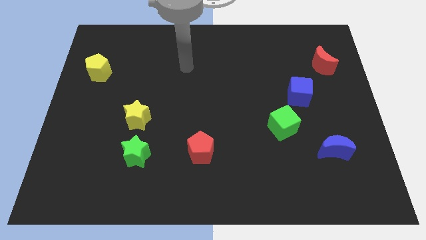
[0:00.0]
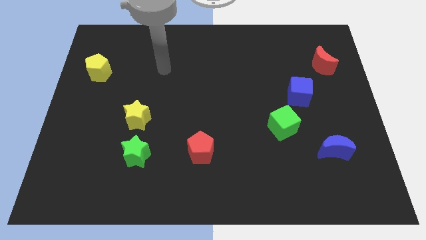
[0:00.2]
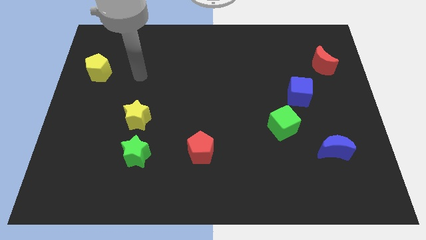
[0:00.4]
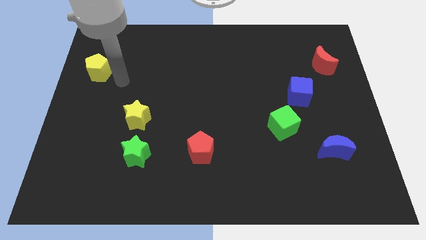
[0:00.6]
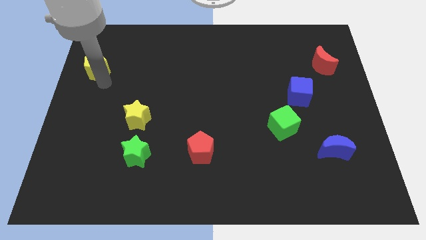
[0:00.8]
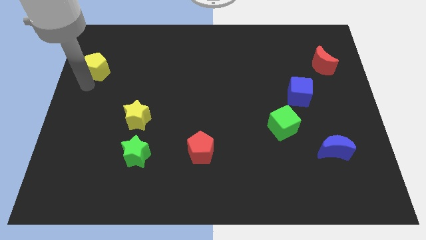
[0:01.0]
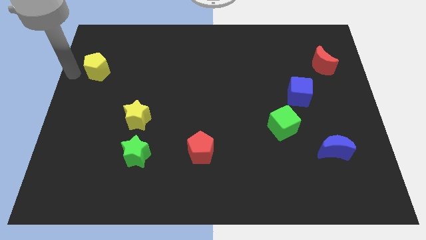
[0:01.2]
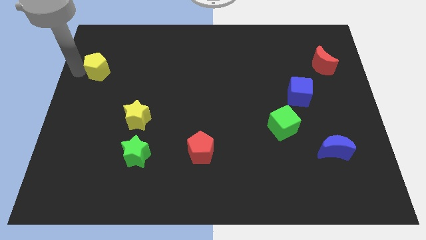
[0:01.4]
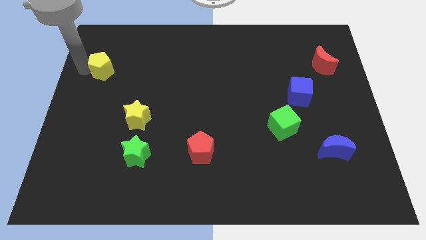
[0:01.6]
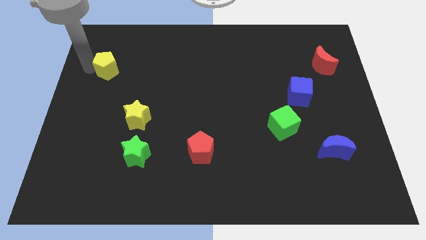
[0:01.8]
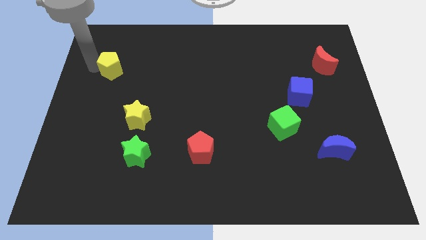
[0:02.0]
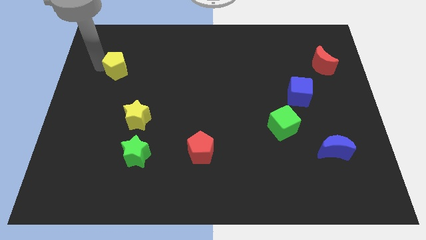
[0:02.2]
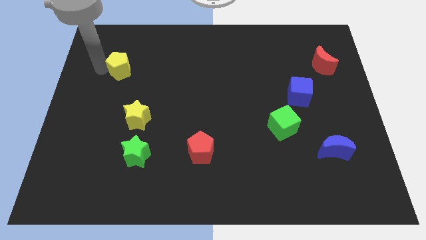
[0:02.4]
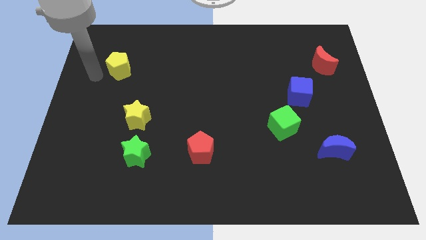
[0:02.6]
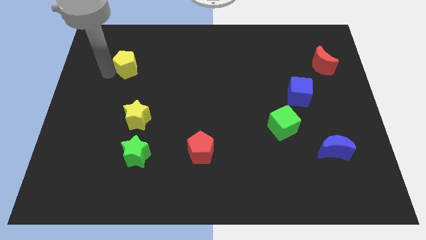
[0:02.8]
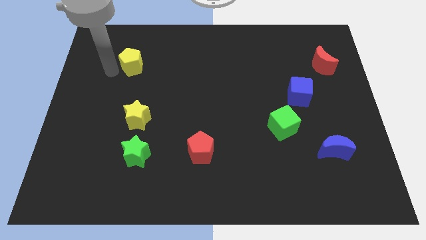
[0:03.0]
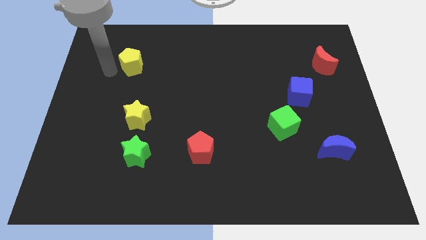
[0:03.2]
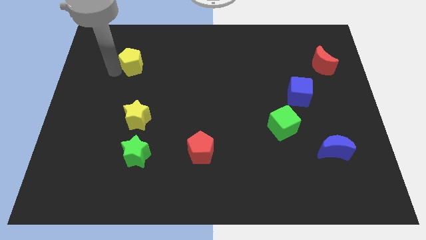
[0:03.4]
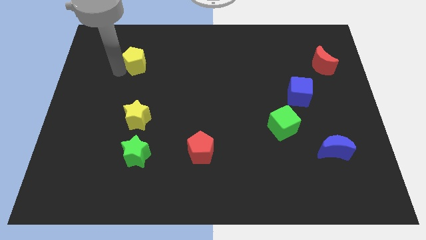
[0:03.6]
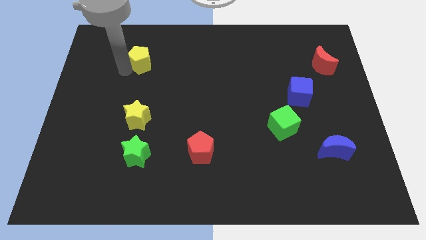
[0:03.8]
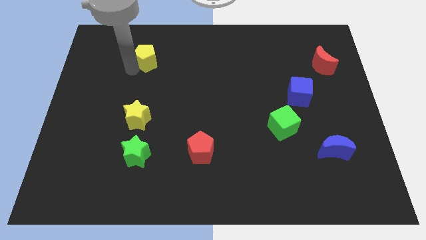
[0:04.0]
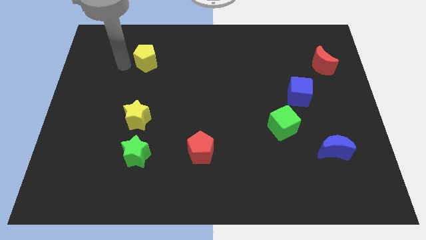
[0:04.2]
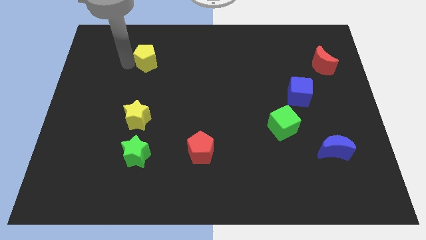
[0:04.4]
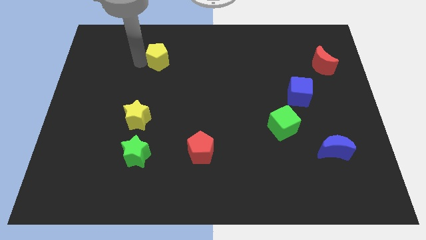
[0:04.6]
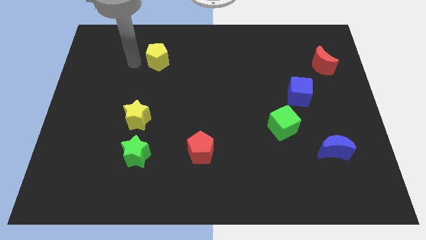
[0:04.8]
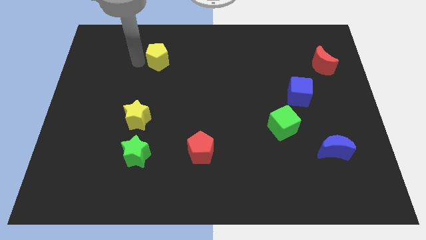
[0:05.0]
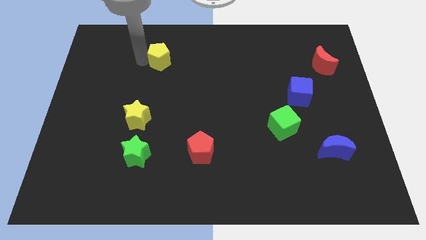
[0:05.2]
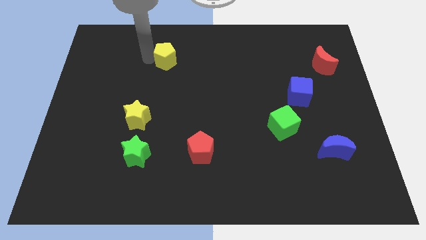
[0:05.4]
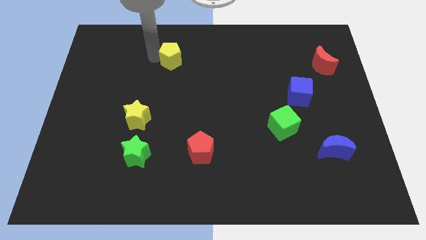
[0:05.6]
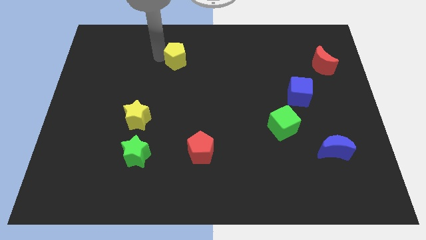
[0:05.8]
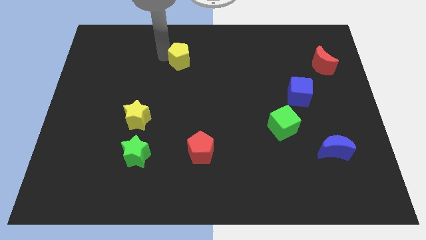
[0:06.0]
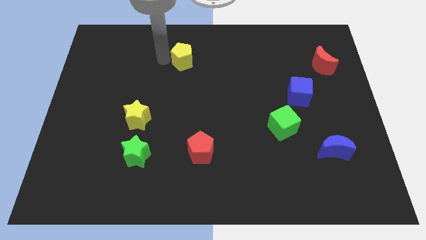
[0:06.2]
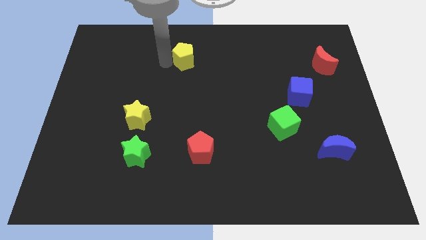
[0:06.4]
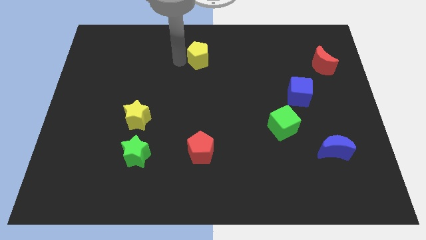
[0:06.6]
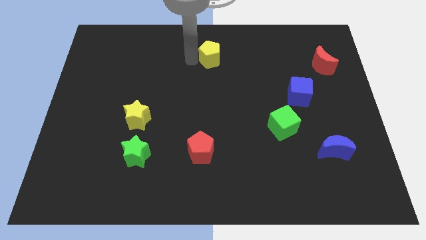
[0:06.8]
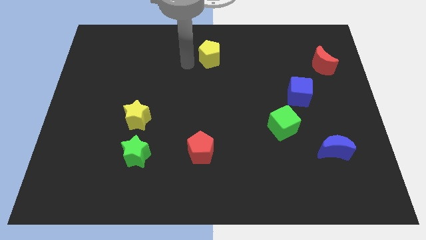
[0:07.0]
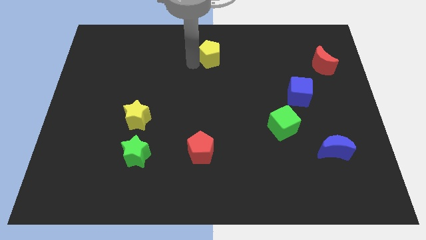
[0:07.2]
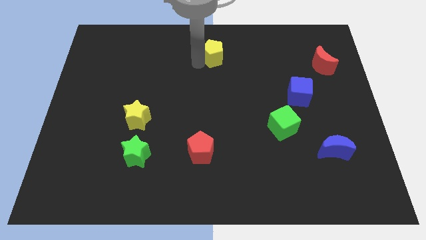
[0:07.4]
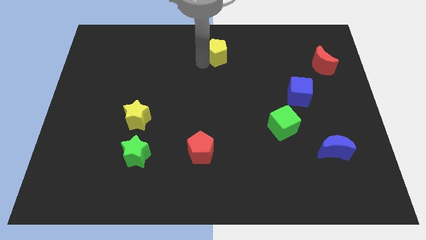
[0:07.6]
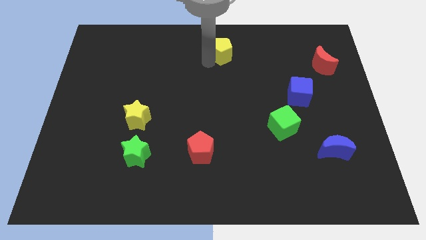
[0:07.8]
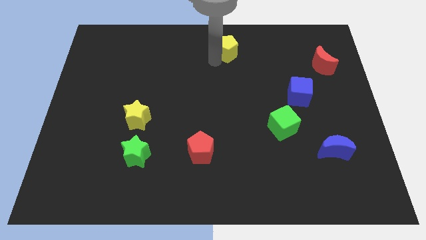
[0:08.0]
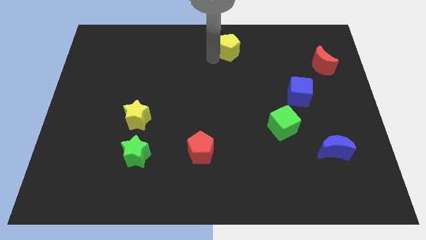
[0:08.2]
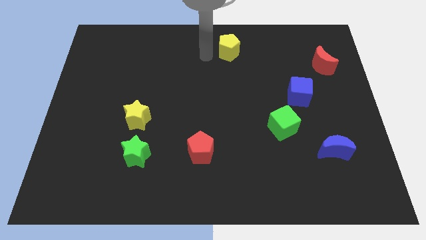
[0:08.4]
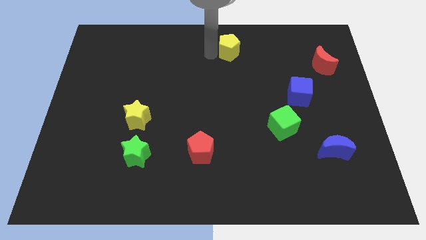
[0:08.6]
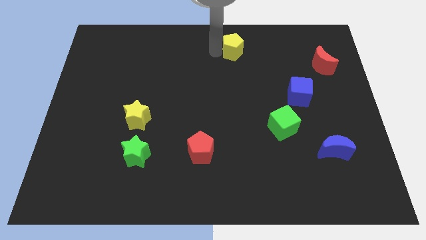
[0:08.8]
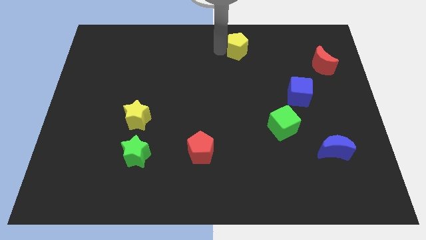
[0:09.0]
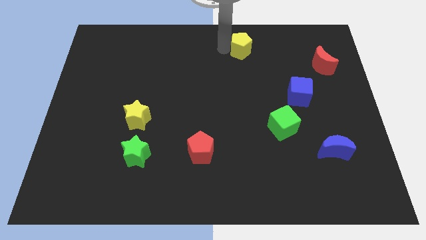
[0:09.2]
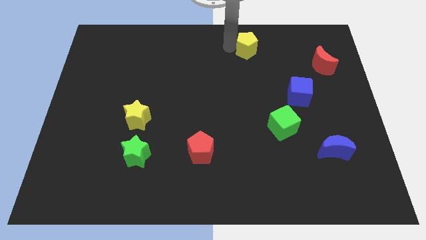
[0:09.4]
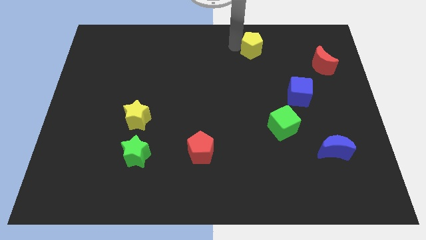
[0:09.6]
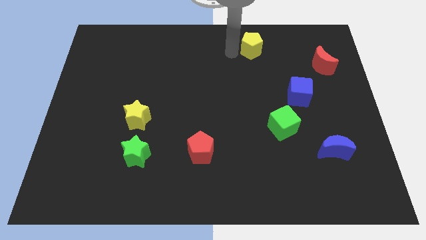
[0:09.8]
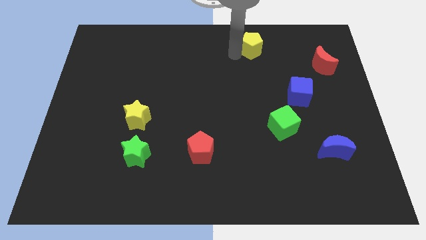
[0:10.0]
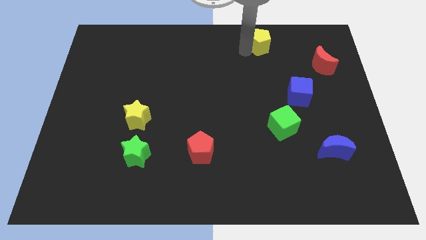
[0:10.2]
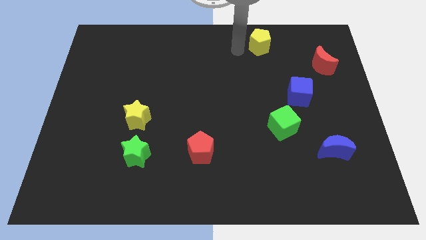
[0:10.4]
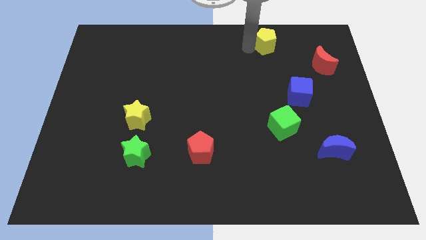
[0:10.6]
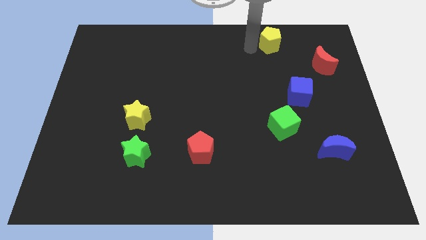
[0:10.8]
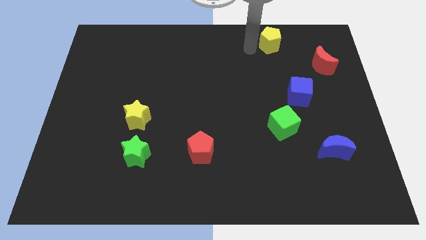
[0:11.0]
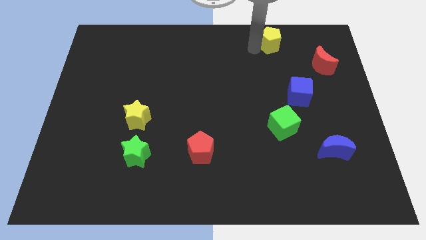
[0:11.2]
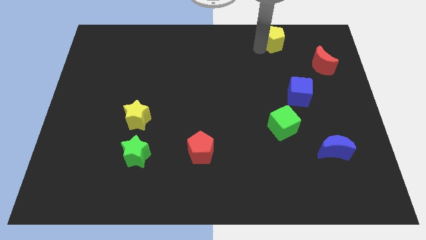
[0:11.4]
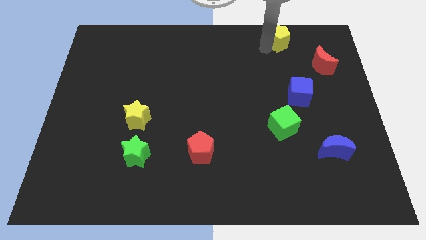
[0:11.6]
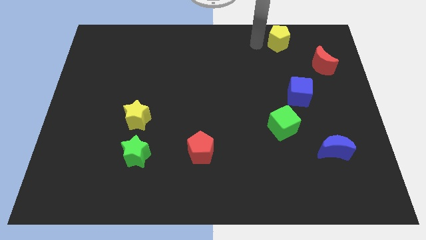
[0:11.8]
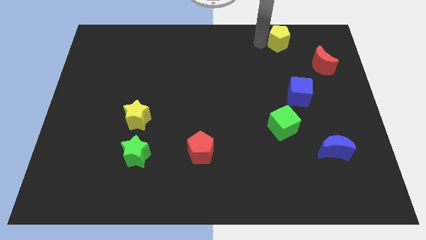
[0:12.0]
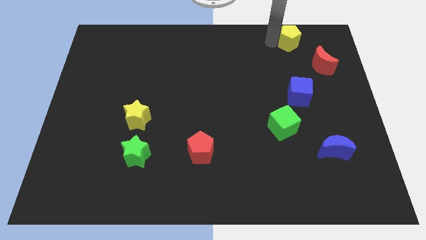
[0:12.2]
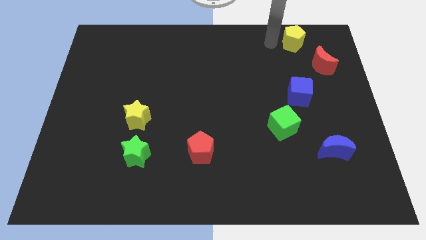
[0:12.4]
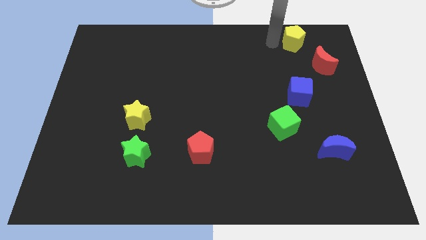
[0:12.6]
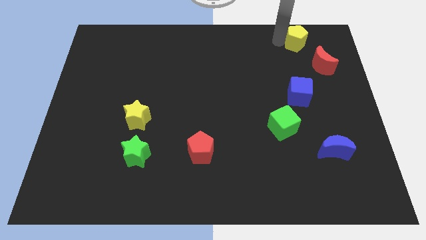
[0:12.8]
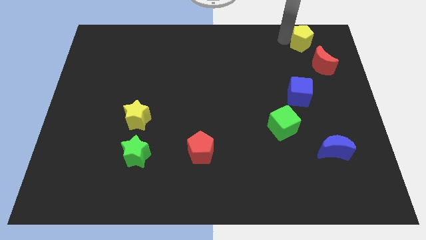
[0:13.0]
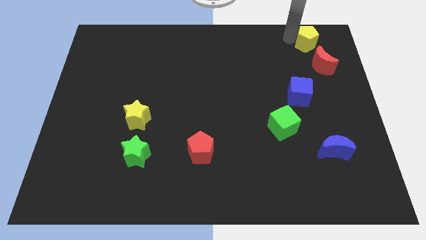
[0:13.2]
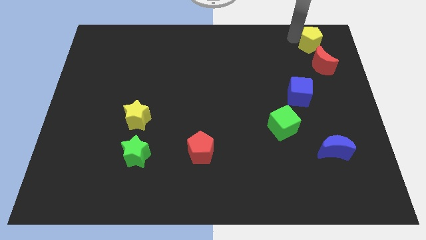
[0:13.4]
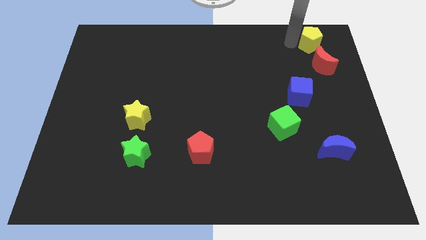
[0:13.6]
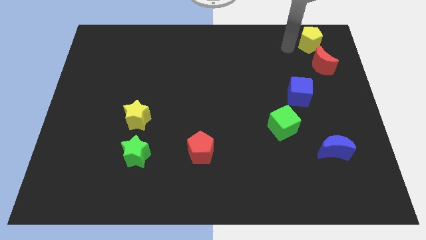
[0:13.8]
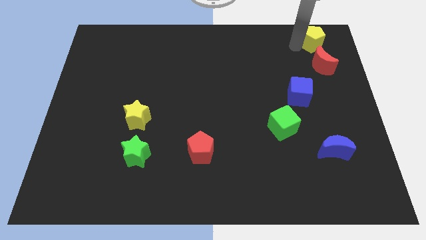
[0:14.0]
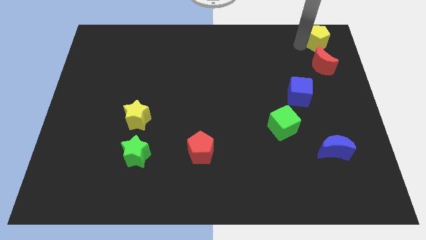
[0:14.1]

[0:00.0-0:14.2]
push the yellow pentagon to the top right of the board
